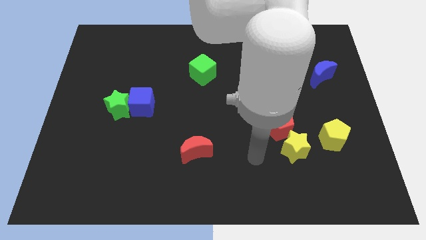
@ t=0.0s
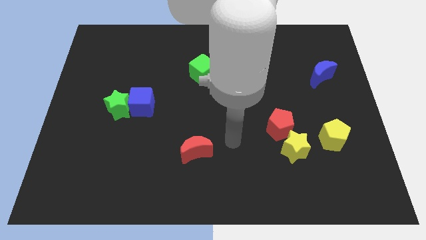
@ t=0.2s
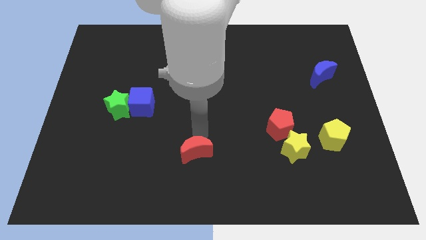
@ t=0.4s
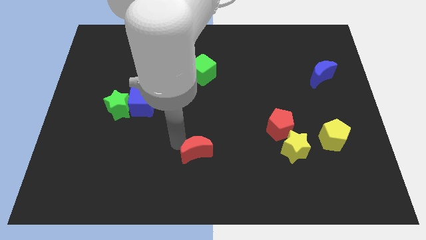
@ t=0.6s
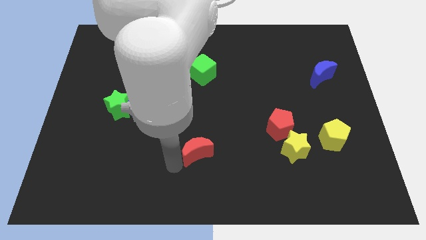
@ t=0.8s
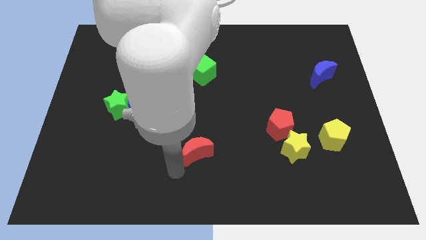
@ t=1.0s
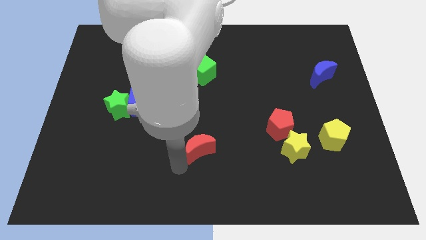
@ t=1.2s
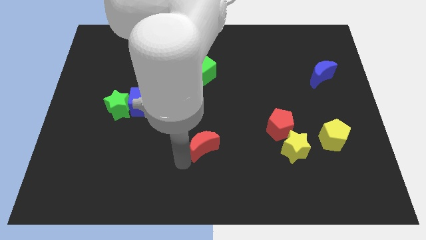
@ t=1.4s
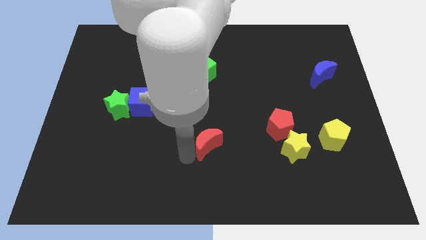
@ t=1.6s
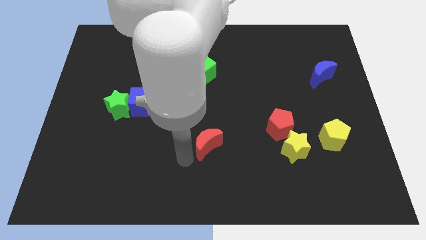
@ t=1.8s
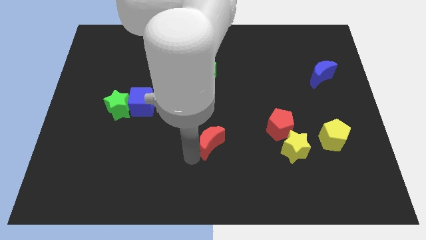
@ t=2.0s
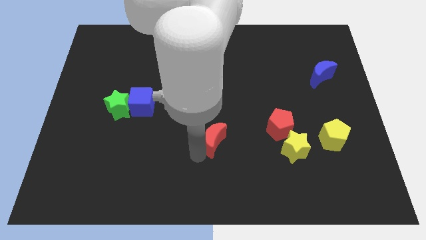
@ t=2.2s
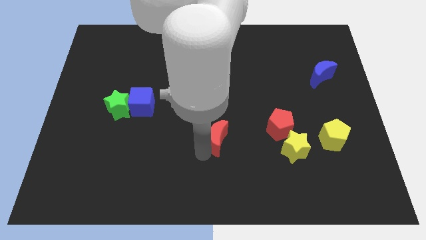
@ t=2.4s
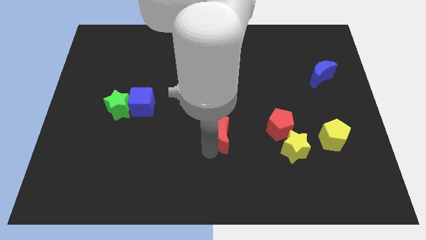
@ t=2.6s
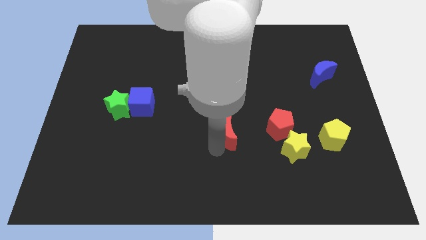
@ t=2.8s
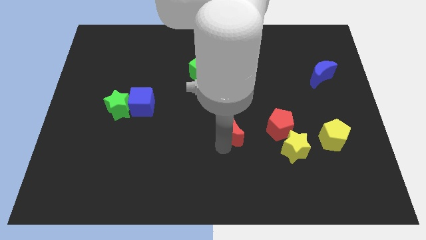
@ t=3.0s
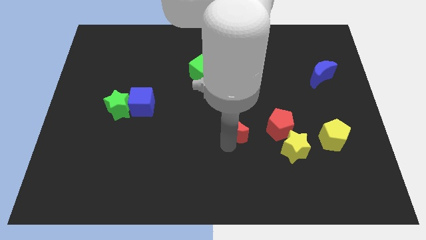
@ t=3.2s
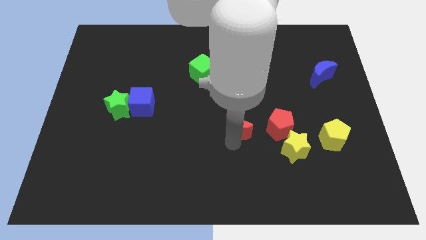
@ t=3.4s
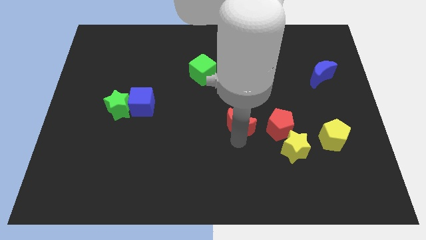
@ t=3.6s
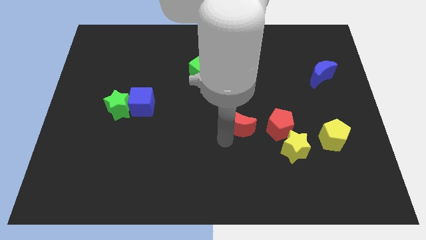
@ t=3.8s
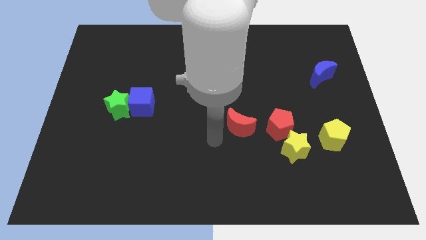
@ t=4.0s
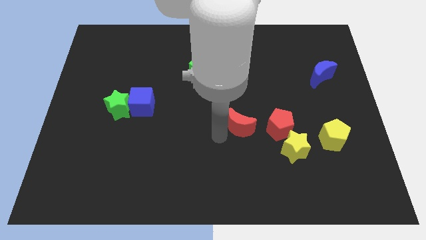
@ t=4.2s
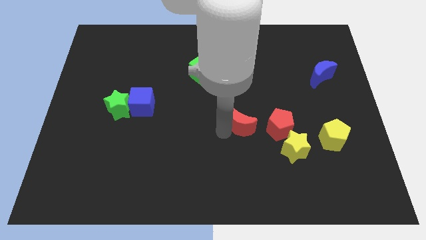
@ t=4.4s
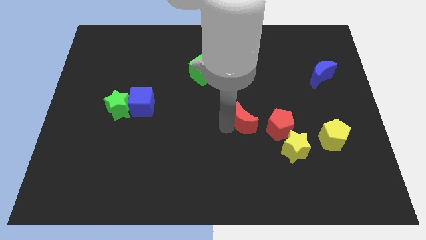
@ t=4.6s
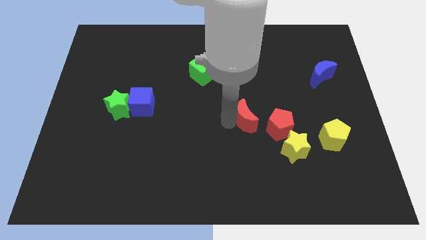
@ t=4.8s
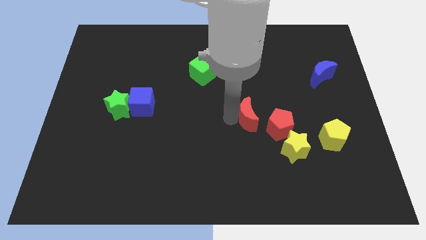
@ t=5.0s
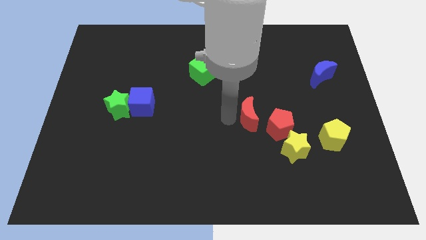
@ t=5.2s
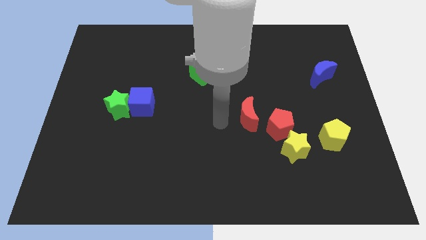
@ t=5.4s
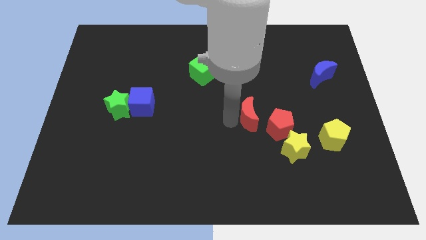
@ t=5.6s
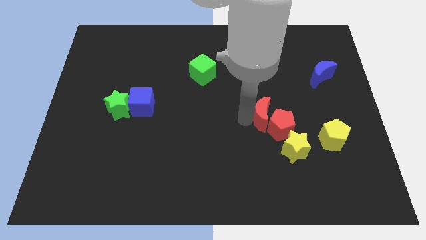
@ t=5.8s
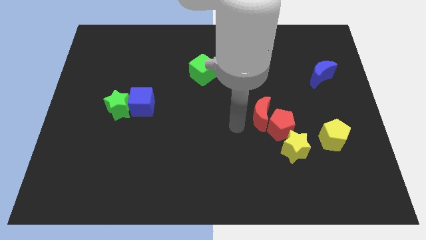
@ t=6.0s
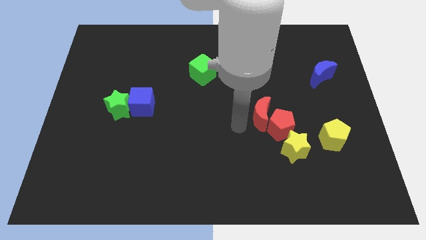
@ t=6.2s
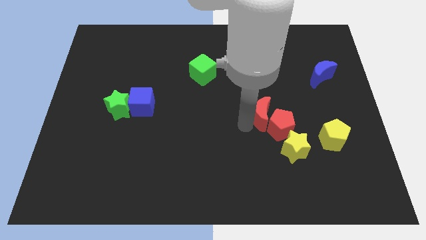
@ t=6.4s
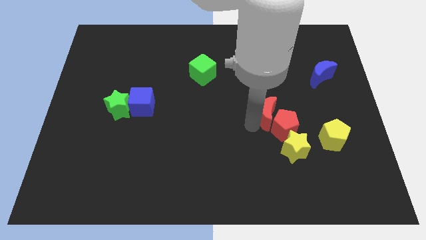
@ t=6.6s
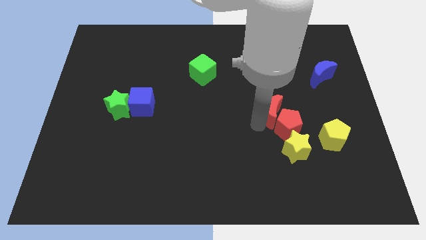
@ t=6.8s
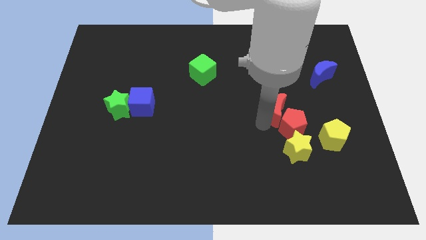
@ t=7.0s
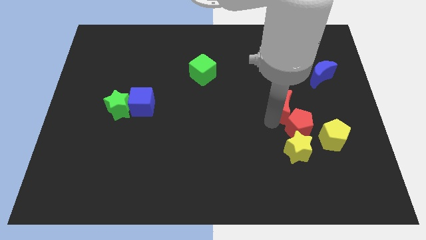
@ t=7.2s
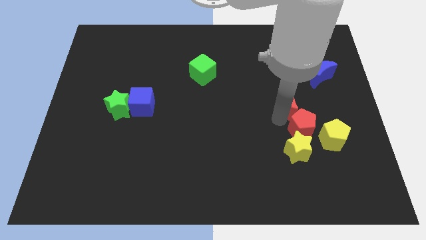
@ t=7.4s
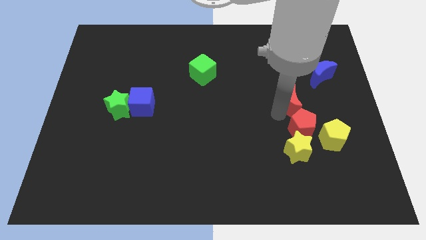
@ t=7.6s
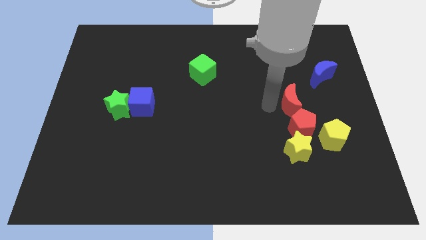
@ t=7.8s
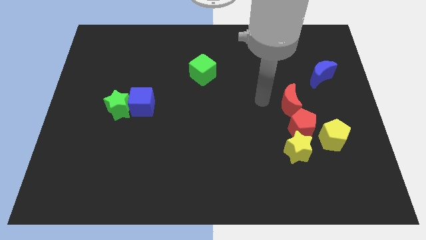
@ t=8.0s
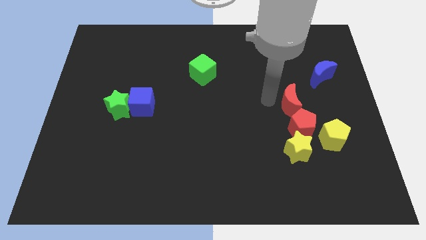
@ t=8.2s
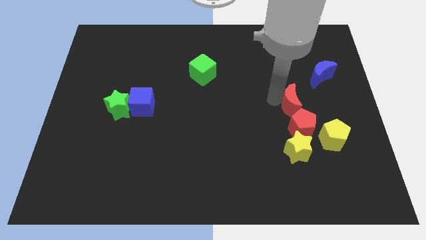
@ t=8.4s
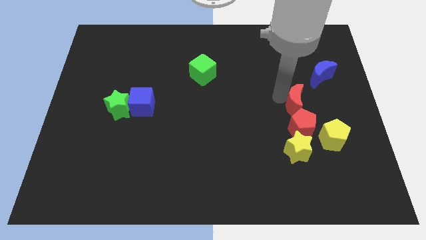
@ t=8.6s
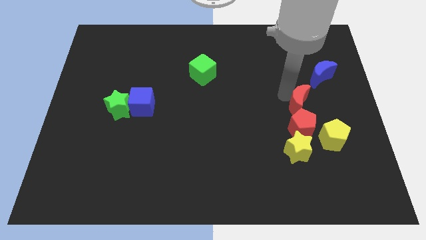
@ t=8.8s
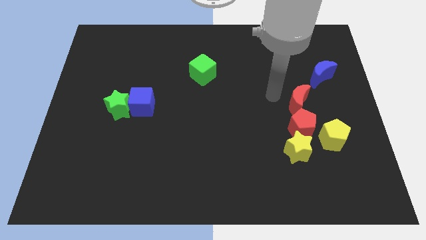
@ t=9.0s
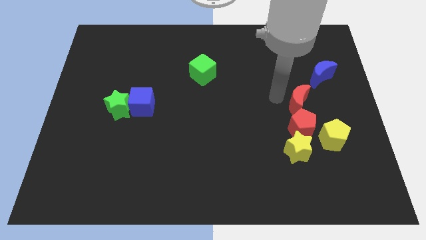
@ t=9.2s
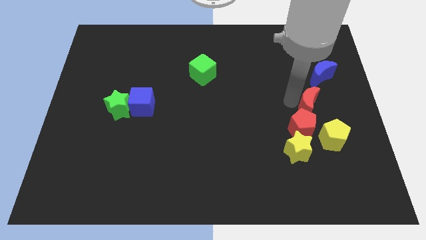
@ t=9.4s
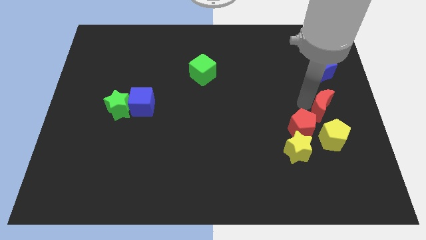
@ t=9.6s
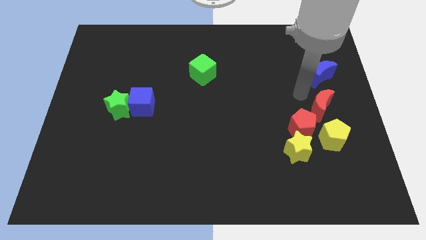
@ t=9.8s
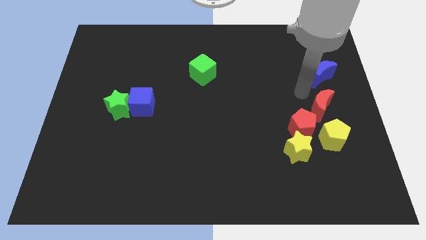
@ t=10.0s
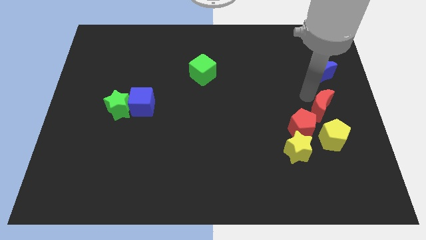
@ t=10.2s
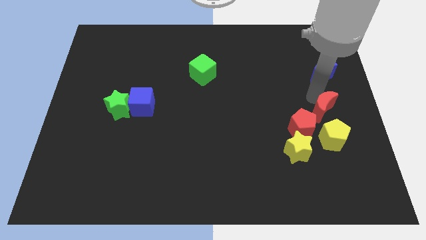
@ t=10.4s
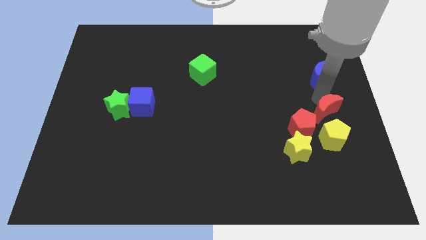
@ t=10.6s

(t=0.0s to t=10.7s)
move the red moon right of the red pentagon
